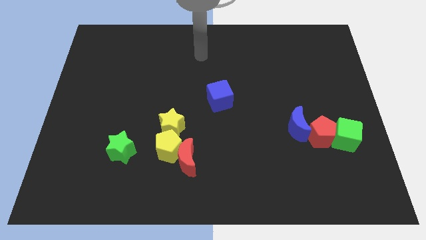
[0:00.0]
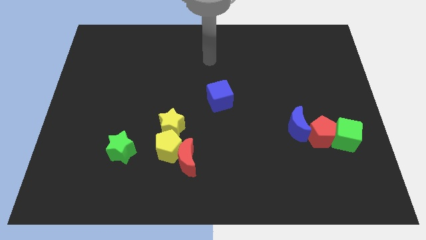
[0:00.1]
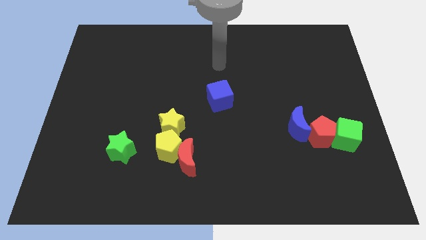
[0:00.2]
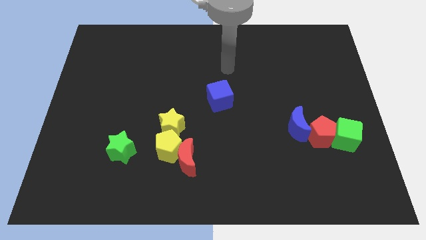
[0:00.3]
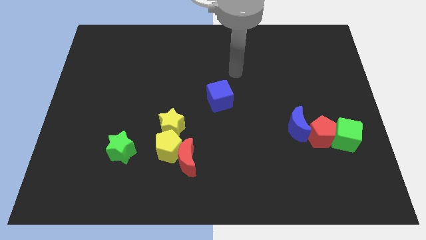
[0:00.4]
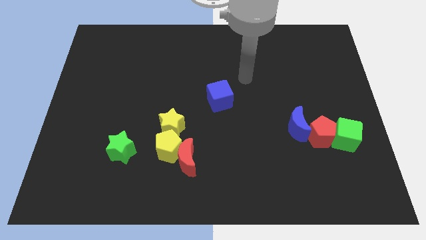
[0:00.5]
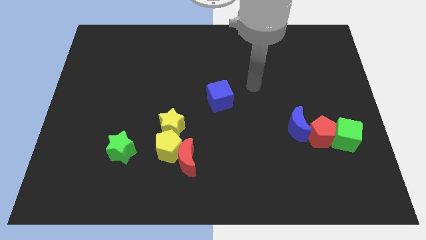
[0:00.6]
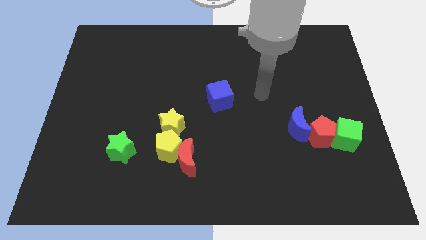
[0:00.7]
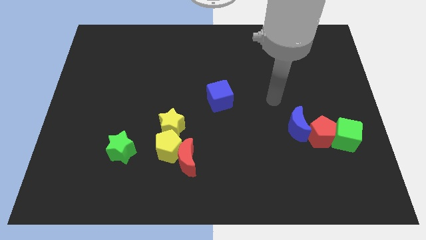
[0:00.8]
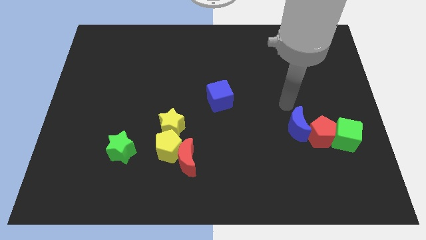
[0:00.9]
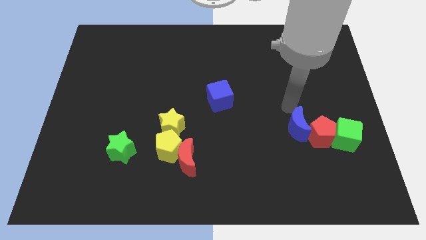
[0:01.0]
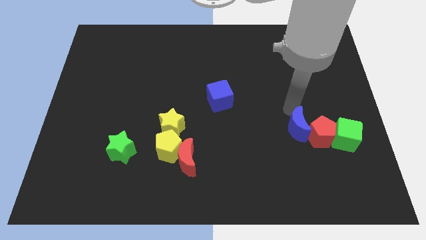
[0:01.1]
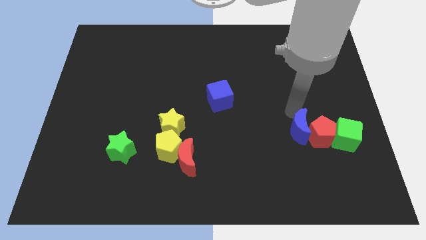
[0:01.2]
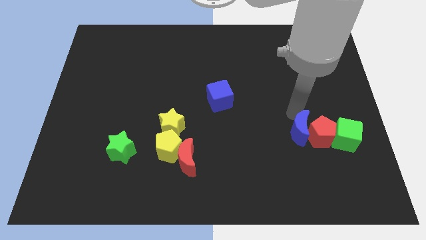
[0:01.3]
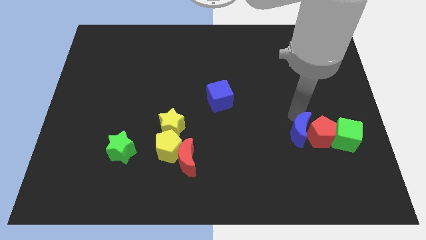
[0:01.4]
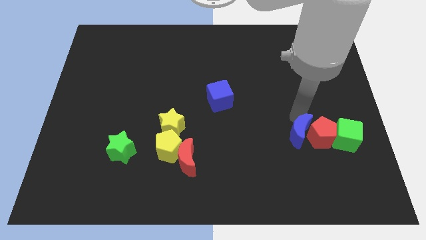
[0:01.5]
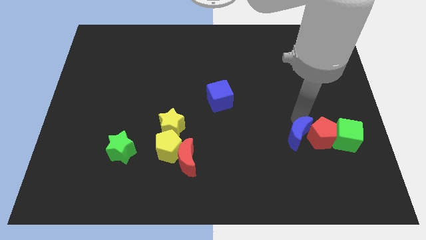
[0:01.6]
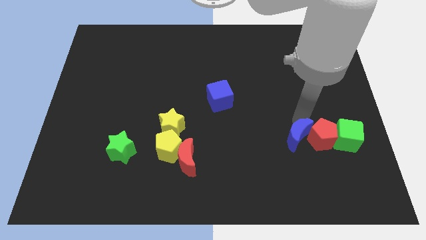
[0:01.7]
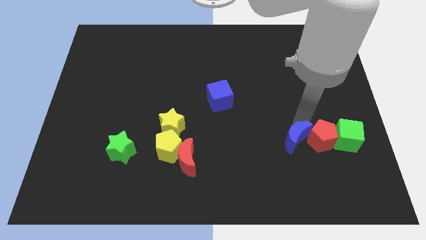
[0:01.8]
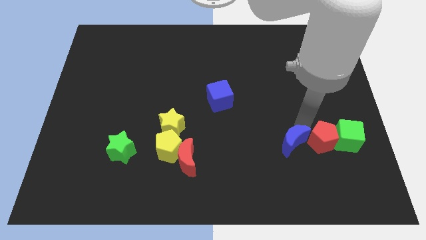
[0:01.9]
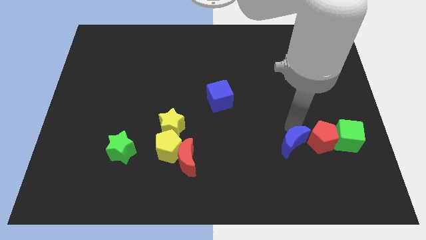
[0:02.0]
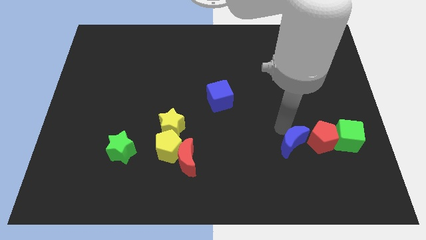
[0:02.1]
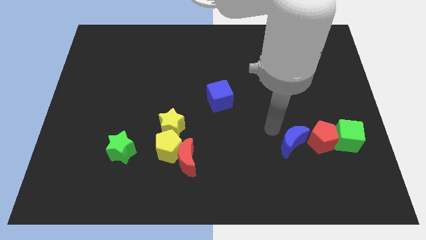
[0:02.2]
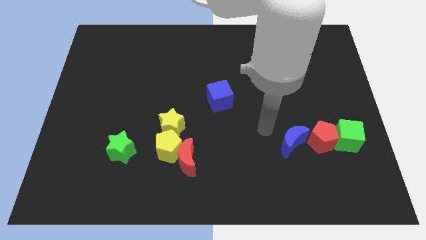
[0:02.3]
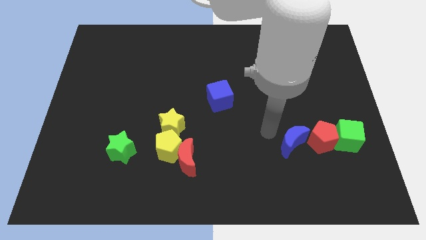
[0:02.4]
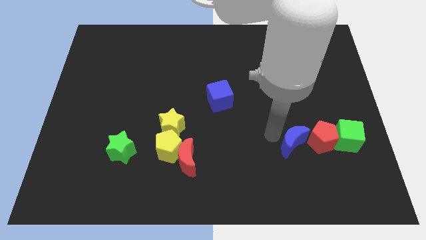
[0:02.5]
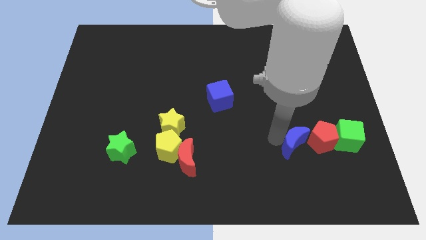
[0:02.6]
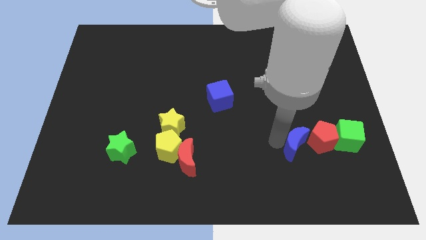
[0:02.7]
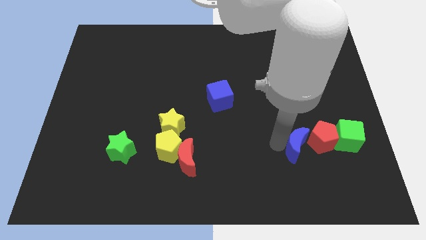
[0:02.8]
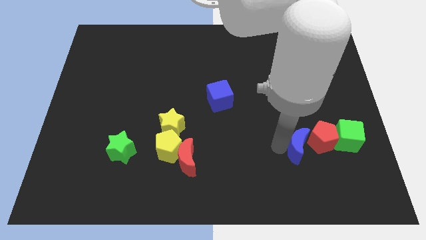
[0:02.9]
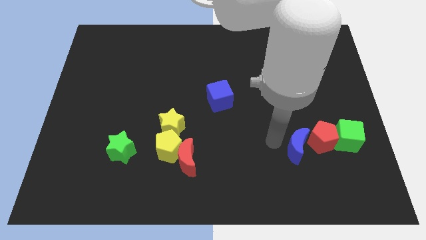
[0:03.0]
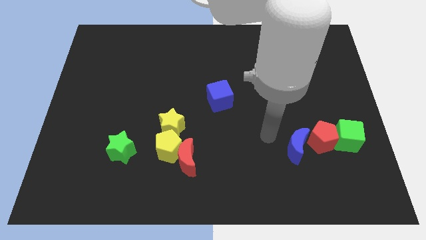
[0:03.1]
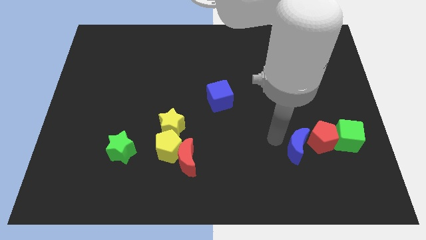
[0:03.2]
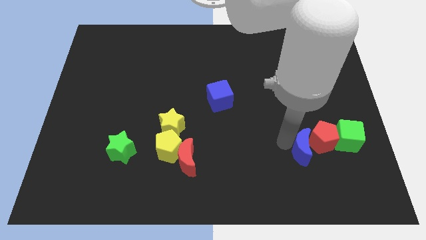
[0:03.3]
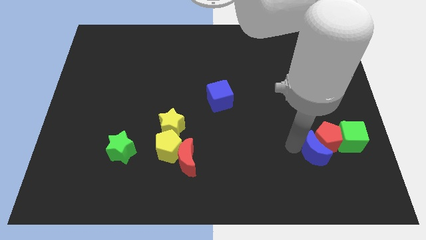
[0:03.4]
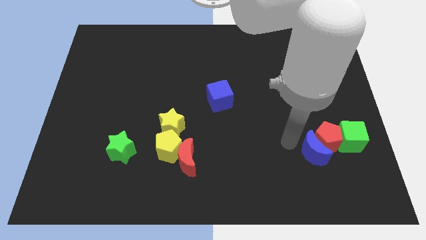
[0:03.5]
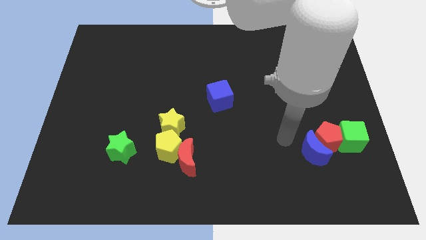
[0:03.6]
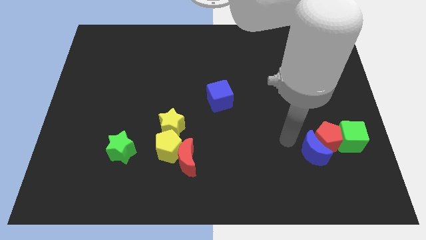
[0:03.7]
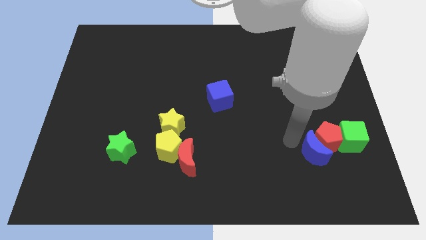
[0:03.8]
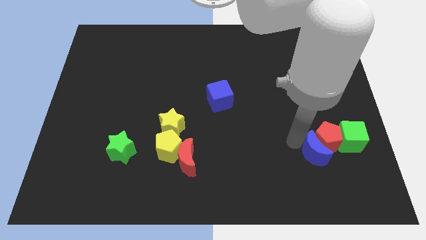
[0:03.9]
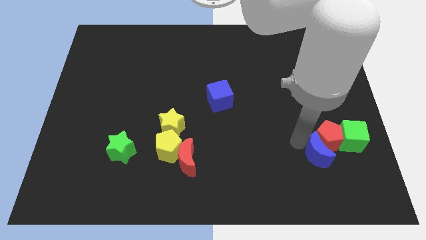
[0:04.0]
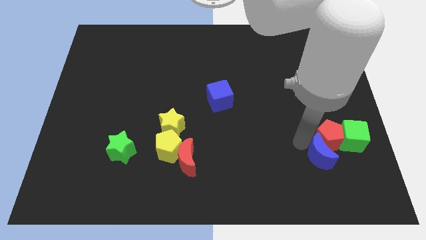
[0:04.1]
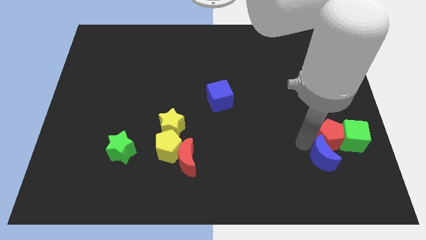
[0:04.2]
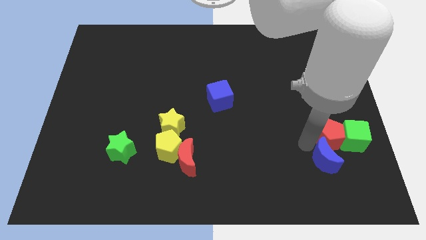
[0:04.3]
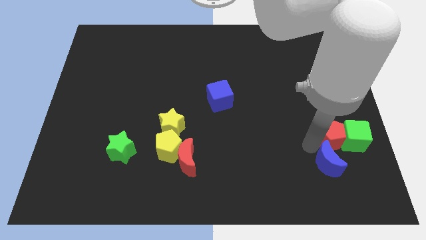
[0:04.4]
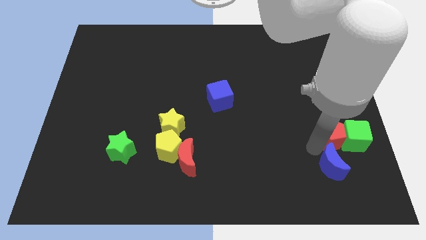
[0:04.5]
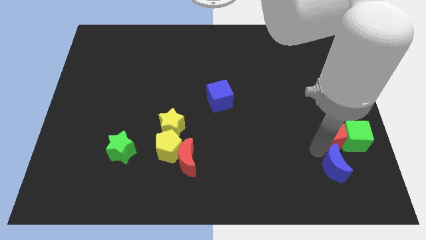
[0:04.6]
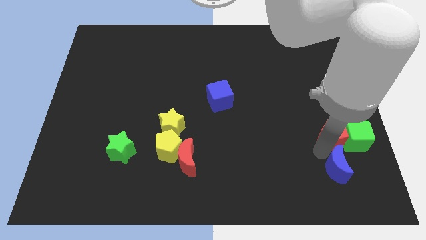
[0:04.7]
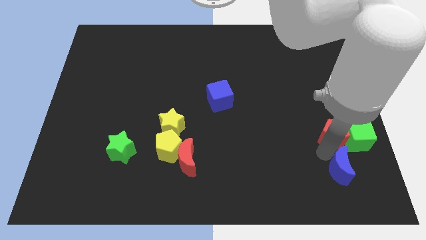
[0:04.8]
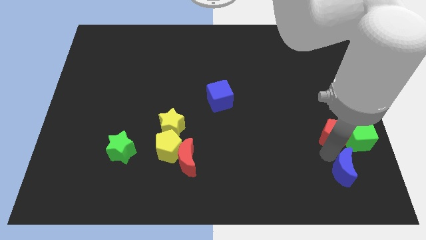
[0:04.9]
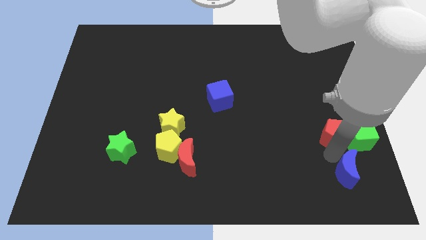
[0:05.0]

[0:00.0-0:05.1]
move the blue moon to the bottom of the green cube

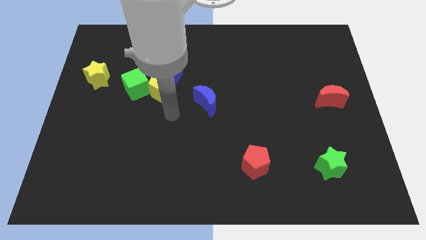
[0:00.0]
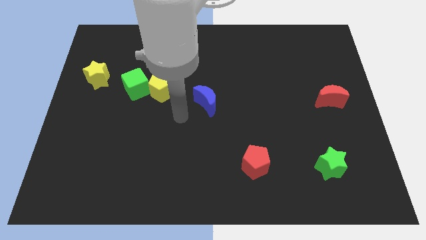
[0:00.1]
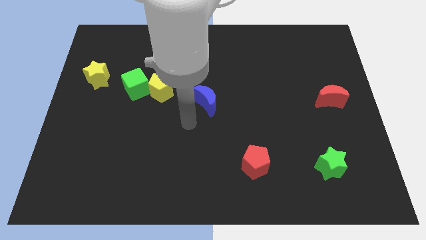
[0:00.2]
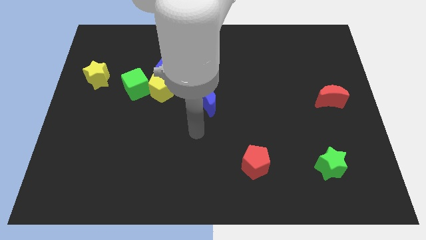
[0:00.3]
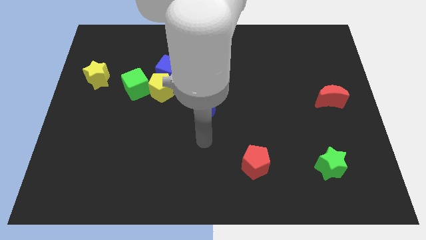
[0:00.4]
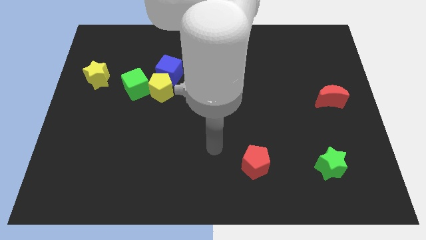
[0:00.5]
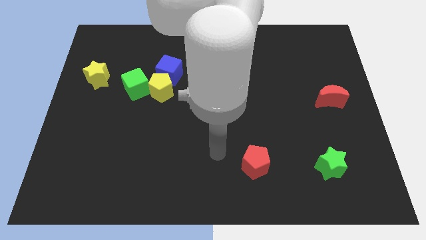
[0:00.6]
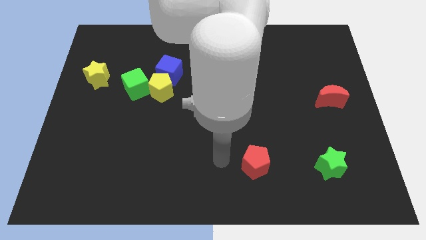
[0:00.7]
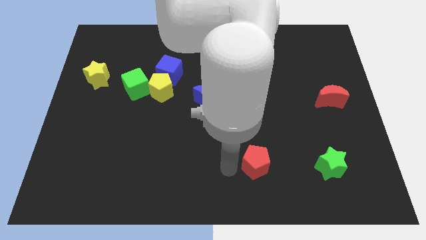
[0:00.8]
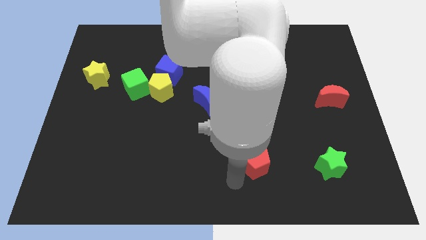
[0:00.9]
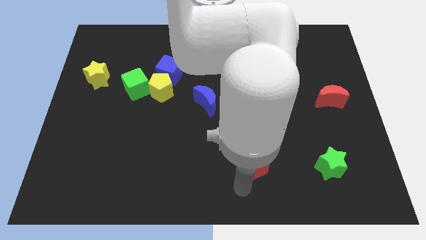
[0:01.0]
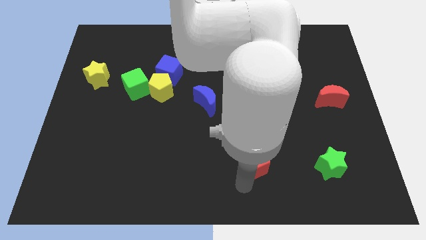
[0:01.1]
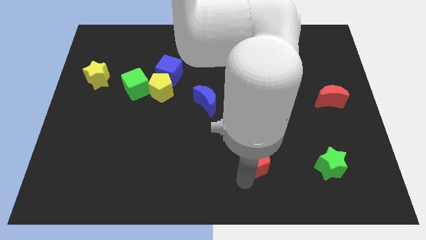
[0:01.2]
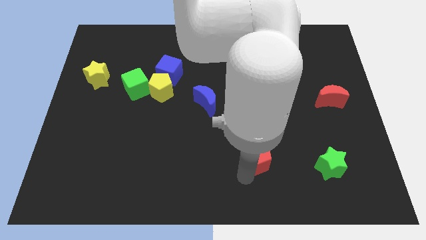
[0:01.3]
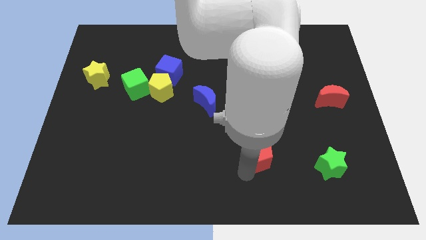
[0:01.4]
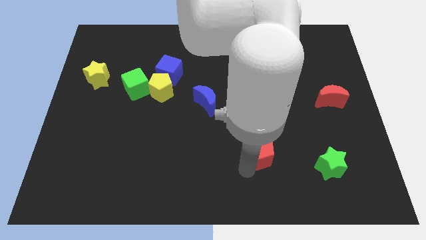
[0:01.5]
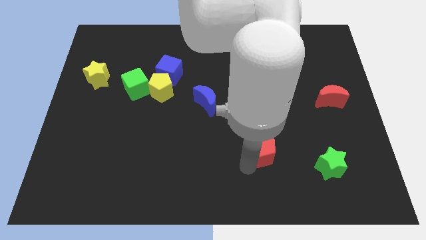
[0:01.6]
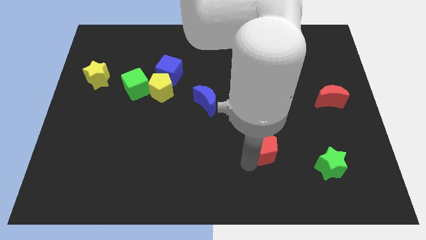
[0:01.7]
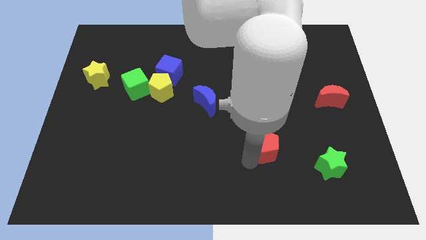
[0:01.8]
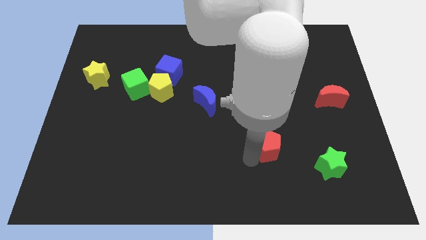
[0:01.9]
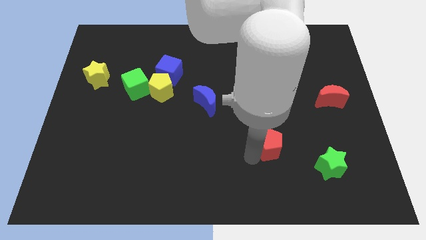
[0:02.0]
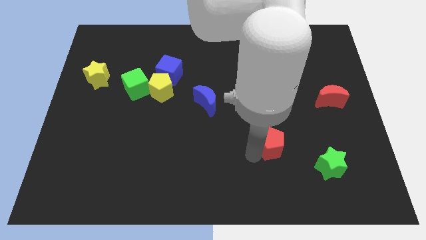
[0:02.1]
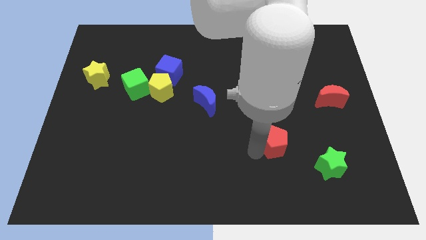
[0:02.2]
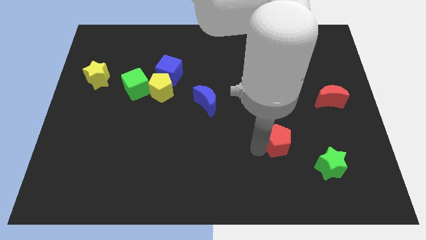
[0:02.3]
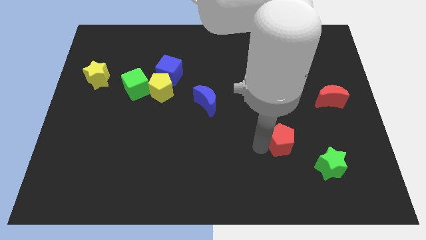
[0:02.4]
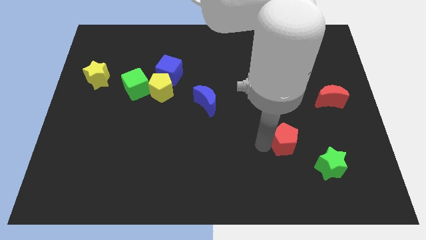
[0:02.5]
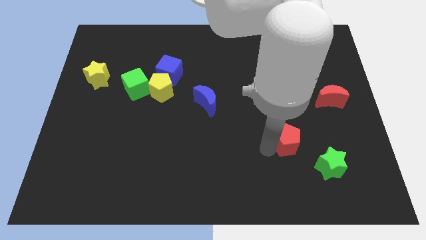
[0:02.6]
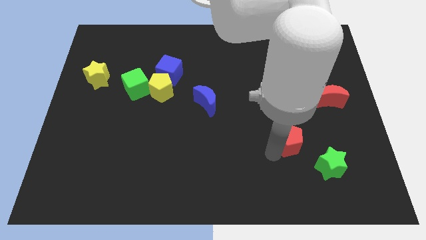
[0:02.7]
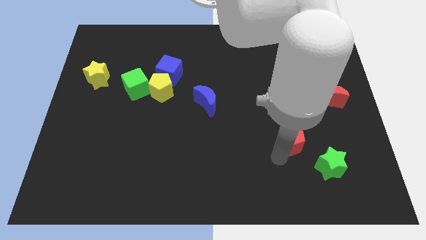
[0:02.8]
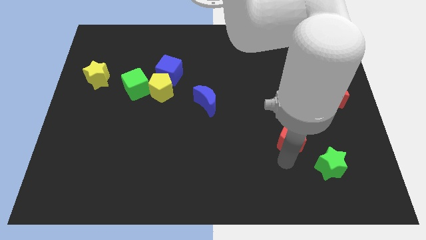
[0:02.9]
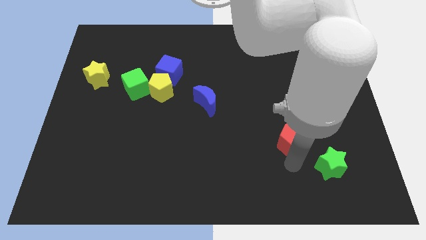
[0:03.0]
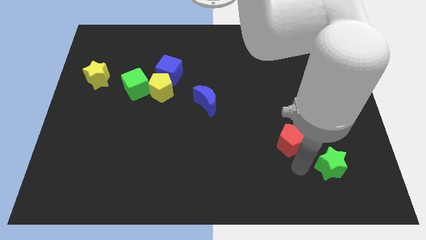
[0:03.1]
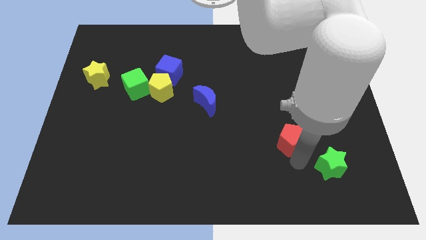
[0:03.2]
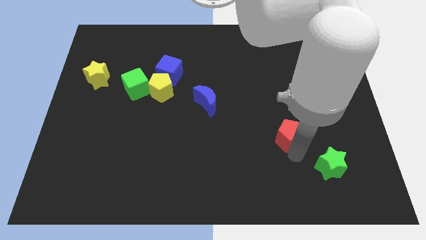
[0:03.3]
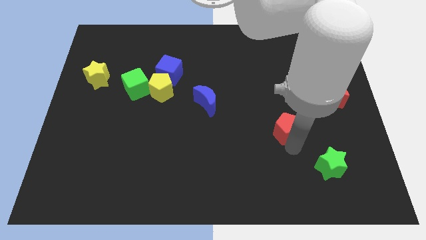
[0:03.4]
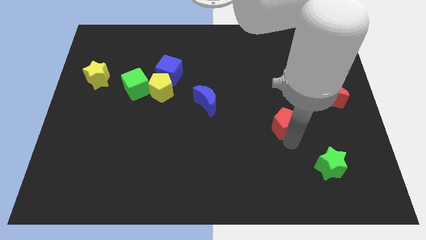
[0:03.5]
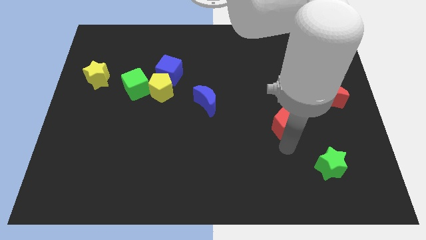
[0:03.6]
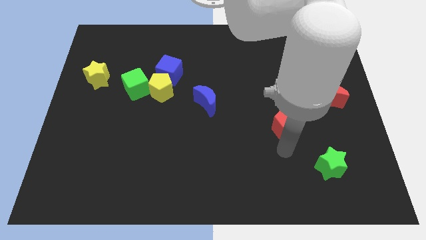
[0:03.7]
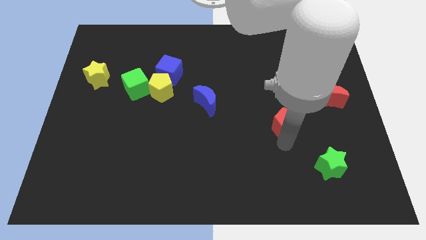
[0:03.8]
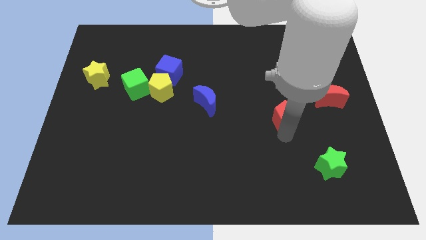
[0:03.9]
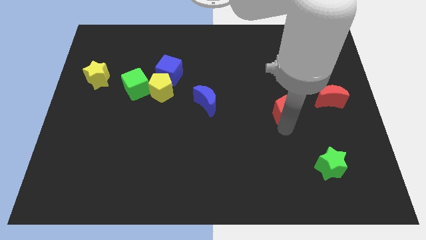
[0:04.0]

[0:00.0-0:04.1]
push the red pentagon to the left of the red moon
